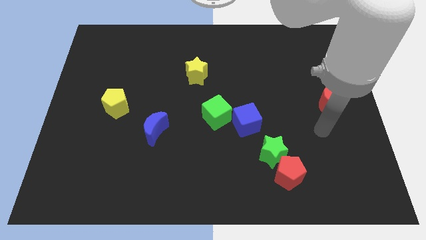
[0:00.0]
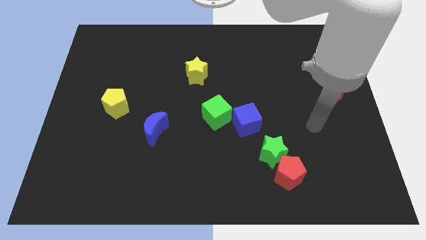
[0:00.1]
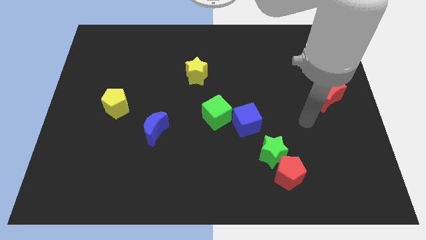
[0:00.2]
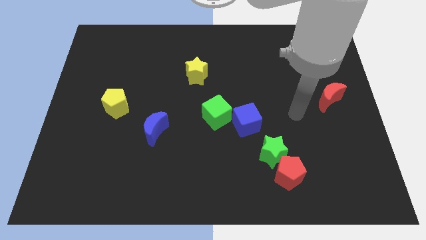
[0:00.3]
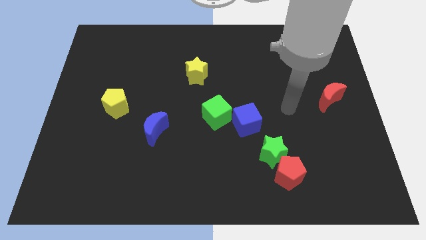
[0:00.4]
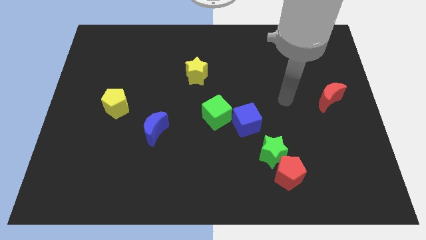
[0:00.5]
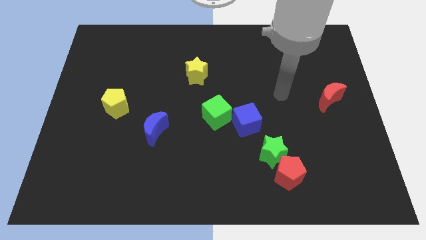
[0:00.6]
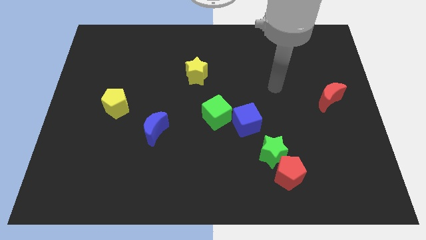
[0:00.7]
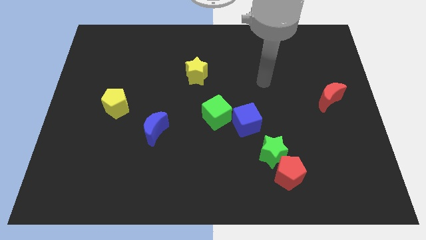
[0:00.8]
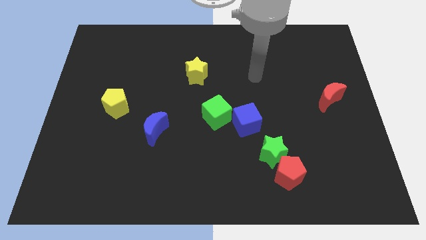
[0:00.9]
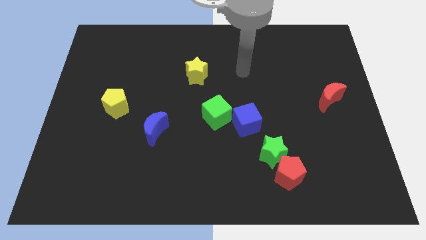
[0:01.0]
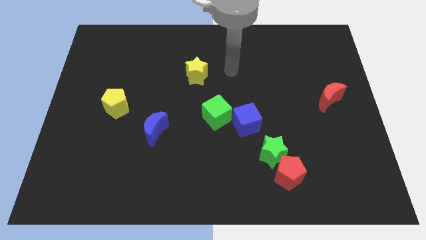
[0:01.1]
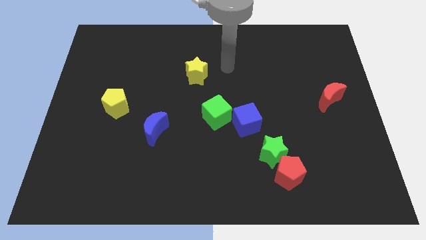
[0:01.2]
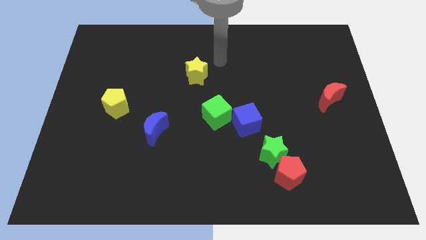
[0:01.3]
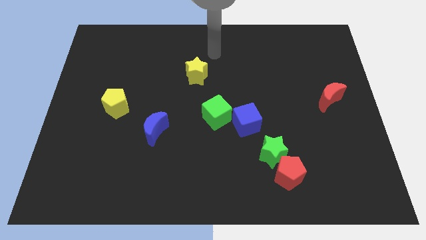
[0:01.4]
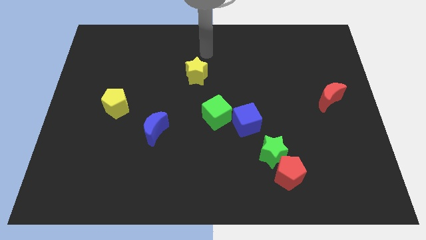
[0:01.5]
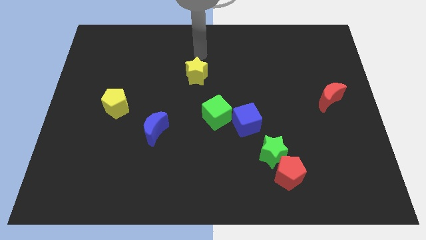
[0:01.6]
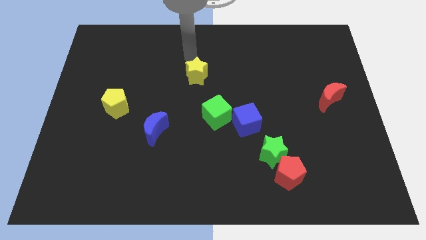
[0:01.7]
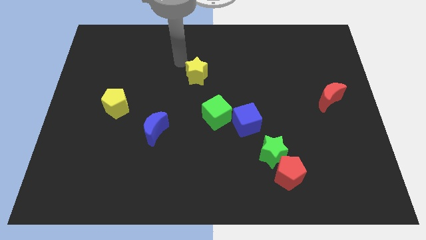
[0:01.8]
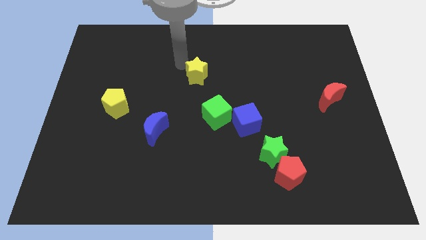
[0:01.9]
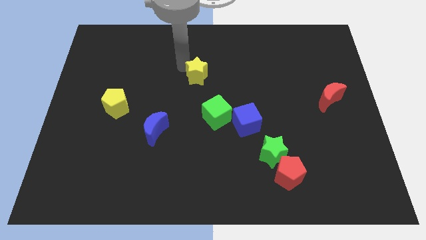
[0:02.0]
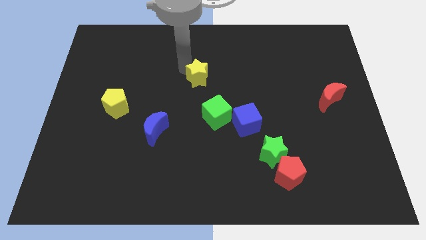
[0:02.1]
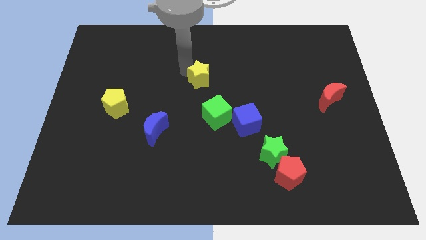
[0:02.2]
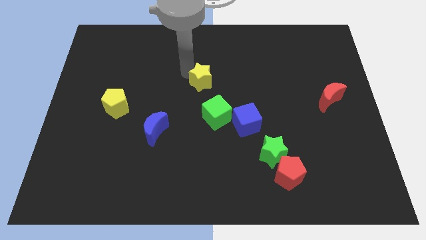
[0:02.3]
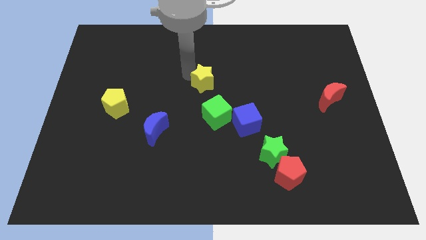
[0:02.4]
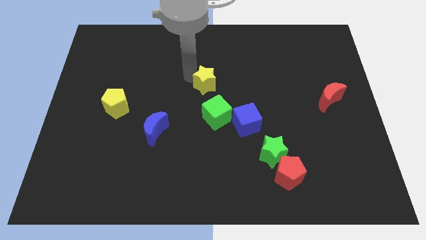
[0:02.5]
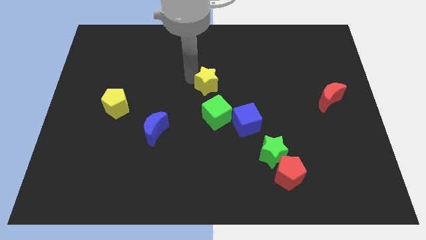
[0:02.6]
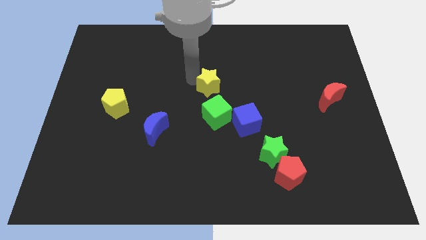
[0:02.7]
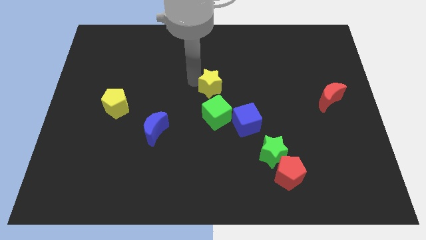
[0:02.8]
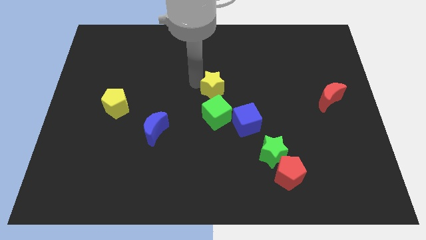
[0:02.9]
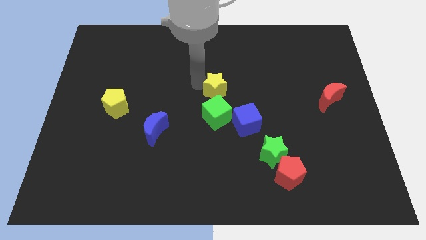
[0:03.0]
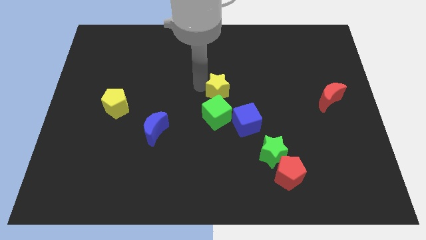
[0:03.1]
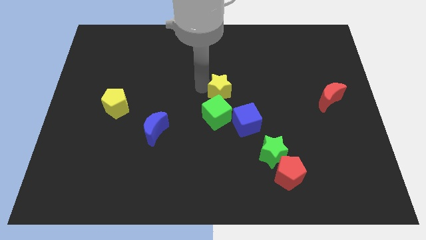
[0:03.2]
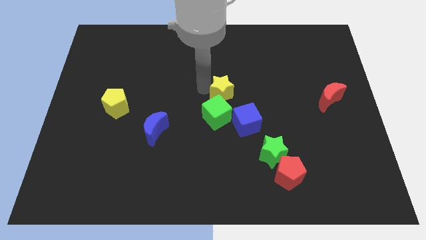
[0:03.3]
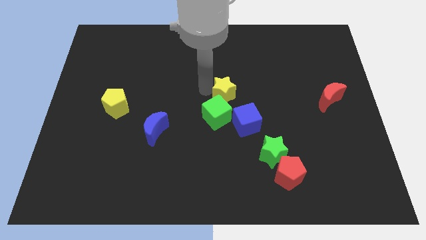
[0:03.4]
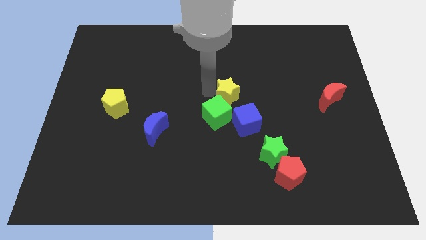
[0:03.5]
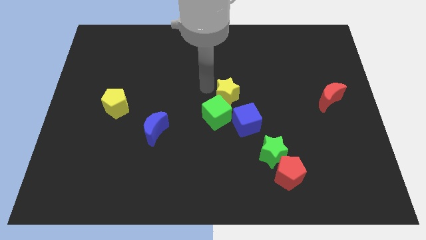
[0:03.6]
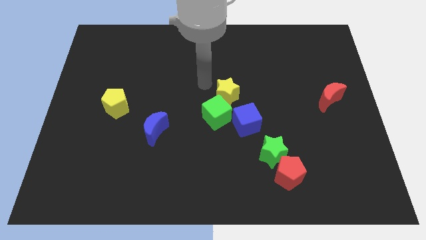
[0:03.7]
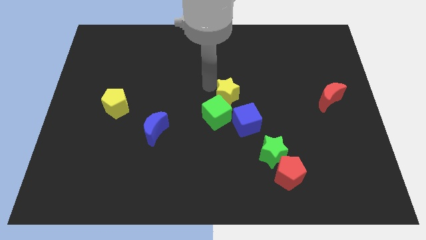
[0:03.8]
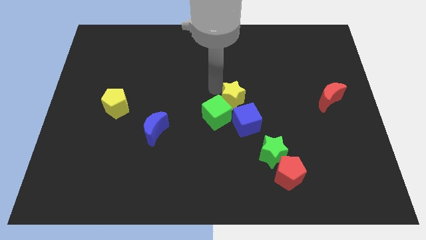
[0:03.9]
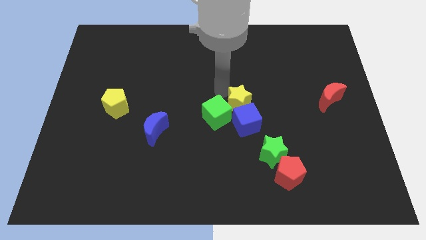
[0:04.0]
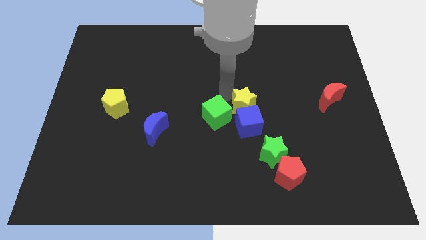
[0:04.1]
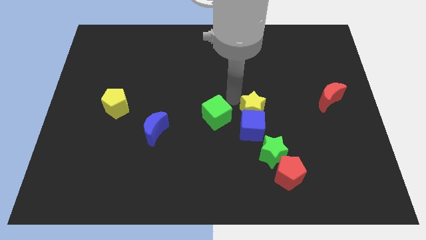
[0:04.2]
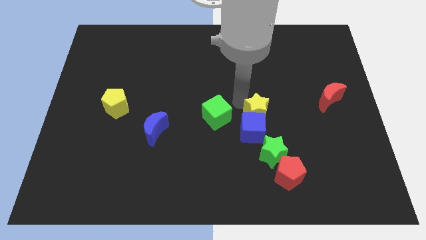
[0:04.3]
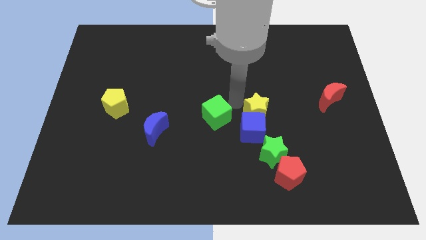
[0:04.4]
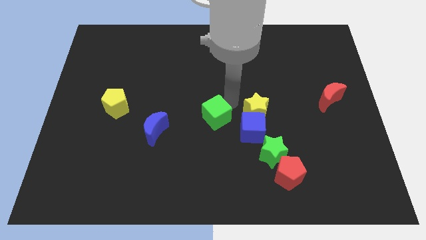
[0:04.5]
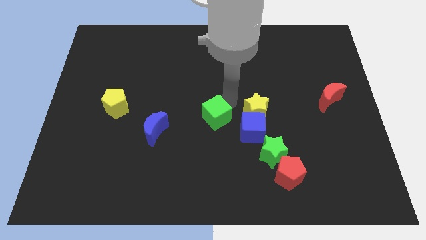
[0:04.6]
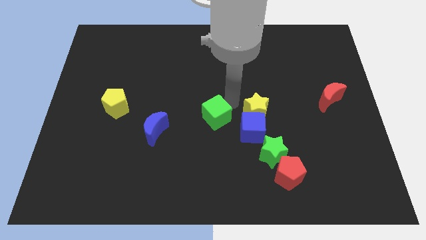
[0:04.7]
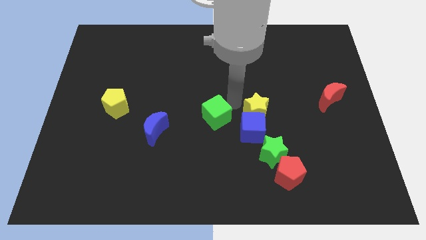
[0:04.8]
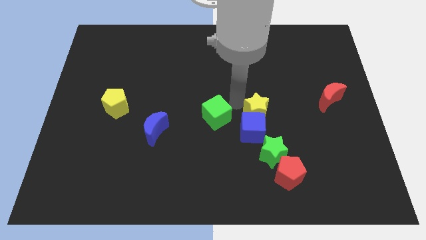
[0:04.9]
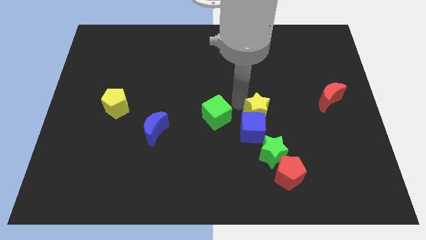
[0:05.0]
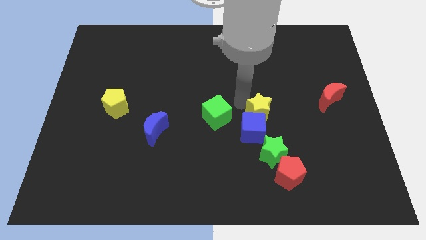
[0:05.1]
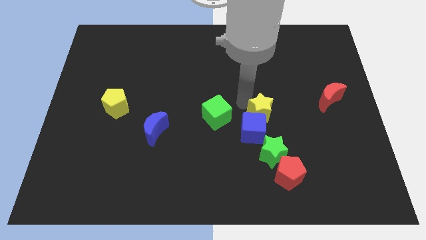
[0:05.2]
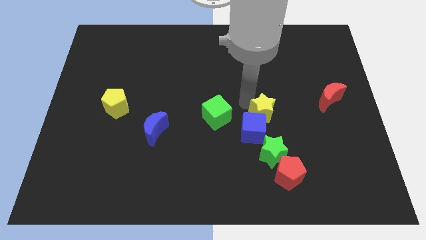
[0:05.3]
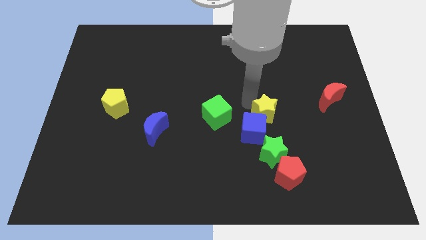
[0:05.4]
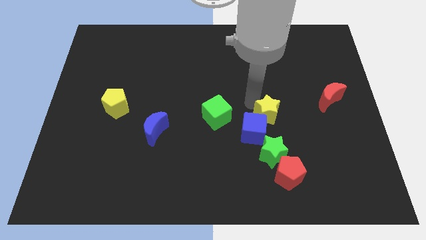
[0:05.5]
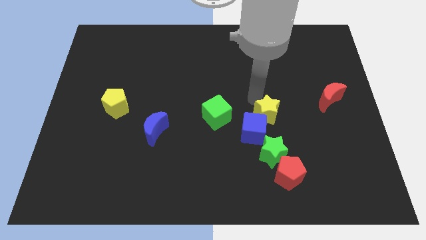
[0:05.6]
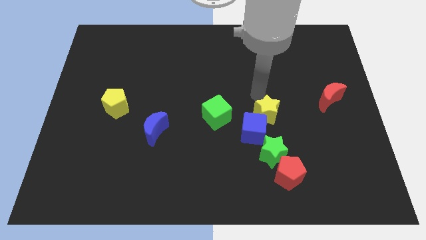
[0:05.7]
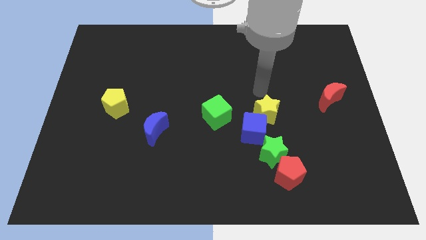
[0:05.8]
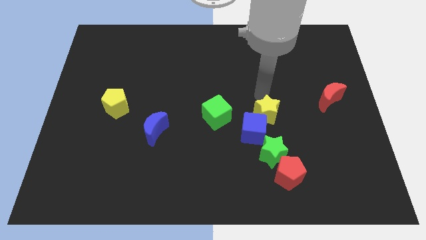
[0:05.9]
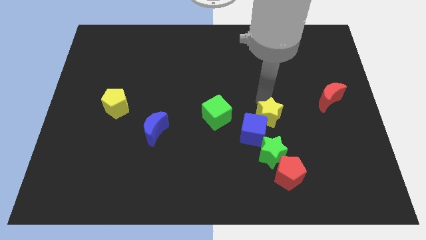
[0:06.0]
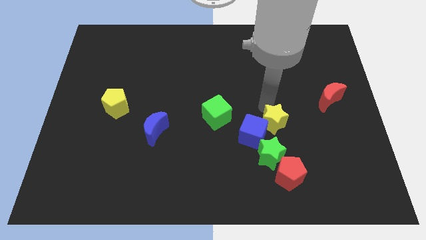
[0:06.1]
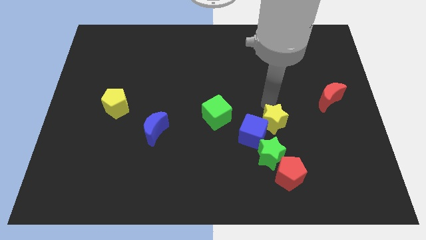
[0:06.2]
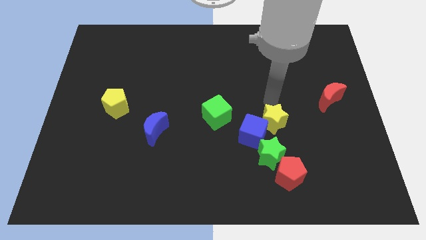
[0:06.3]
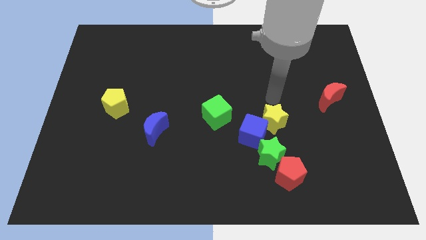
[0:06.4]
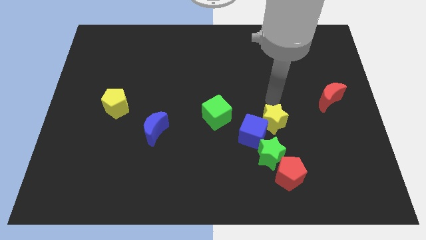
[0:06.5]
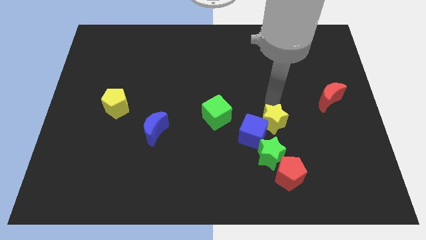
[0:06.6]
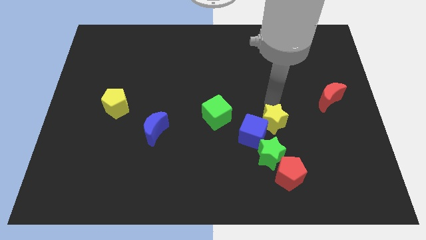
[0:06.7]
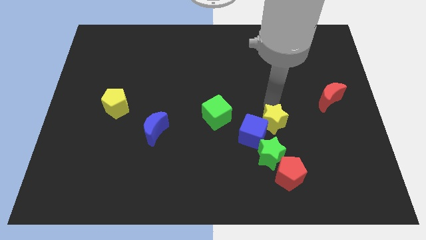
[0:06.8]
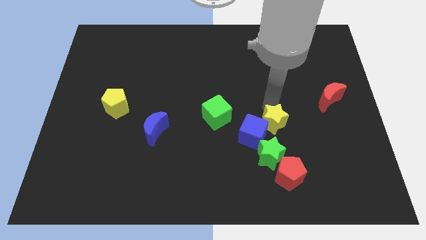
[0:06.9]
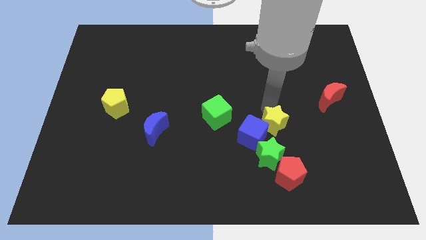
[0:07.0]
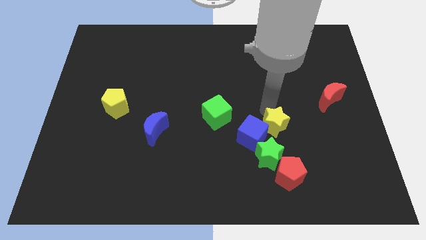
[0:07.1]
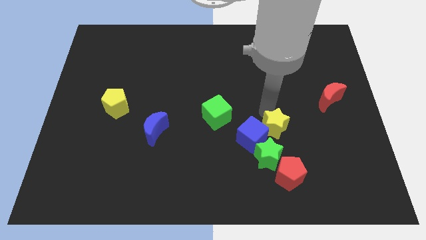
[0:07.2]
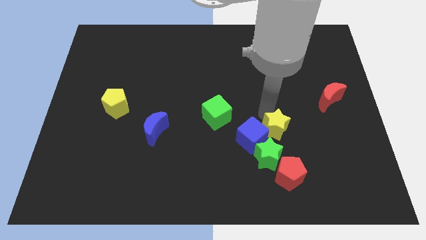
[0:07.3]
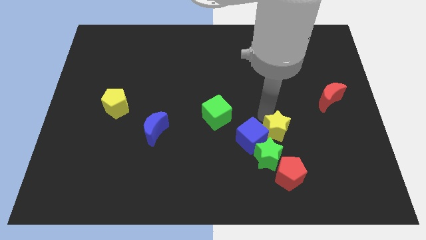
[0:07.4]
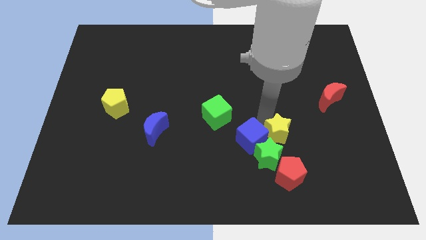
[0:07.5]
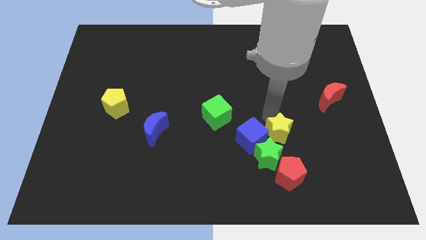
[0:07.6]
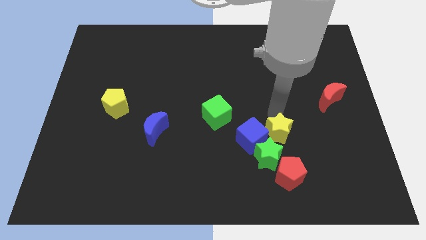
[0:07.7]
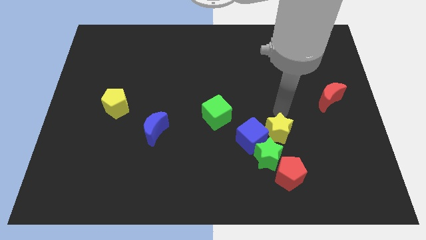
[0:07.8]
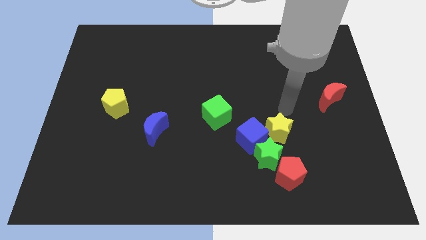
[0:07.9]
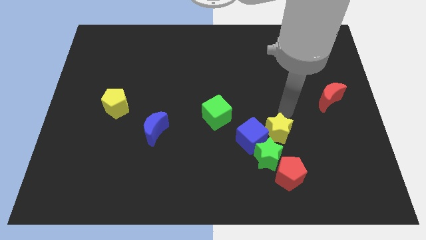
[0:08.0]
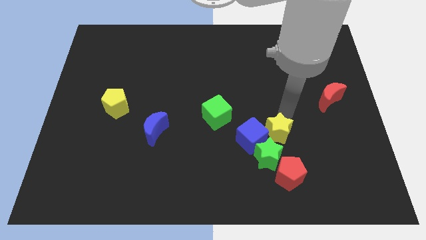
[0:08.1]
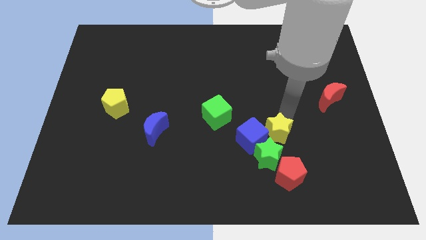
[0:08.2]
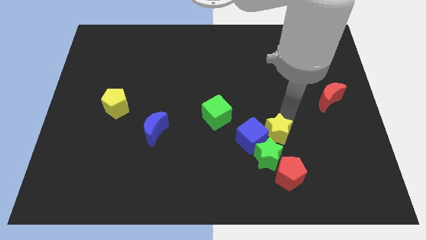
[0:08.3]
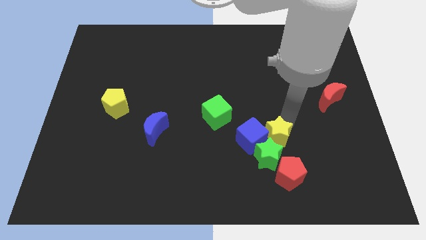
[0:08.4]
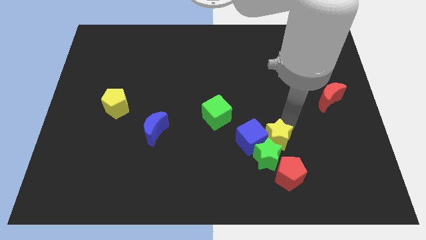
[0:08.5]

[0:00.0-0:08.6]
put the yellow star towards the green star
